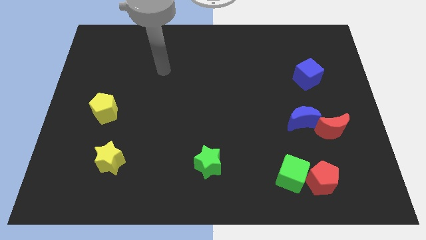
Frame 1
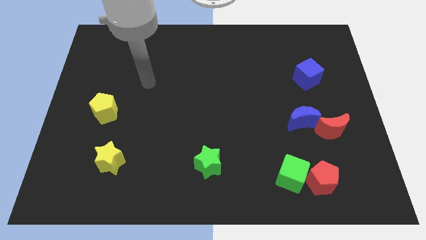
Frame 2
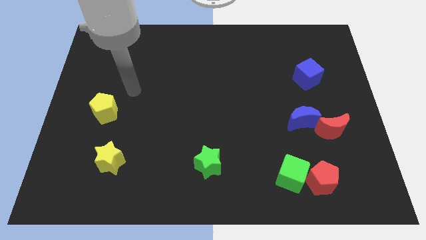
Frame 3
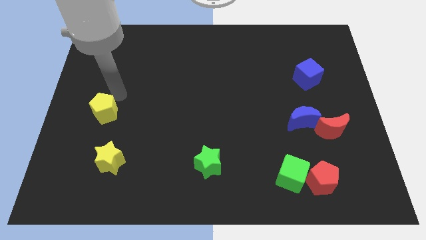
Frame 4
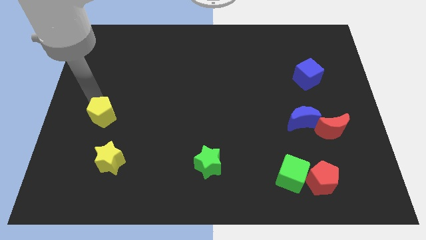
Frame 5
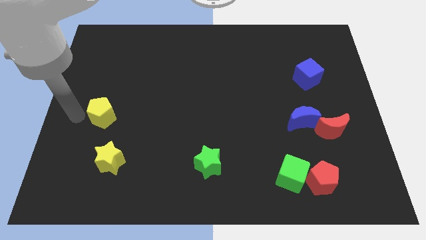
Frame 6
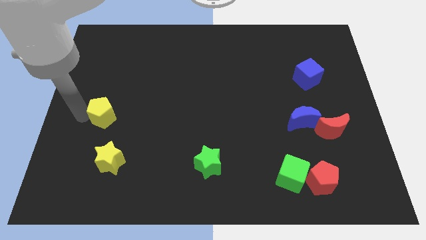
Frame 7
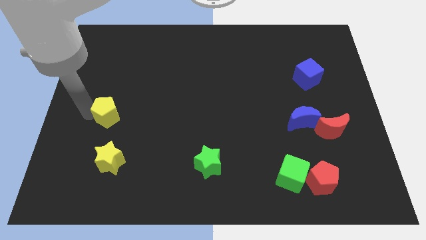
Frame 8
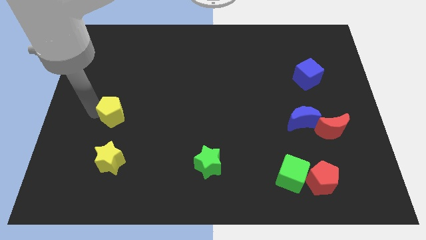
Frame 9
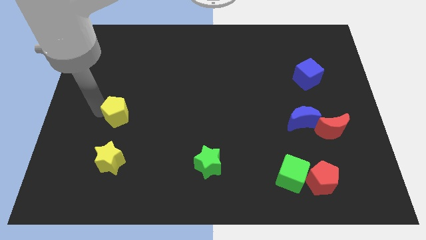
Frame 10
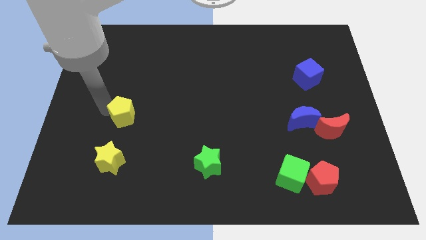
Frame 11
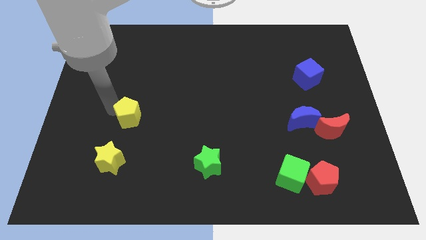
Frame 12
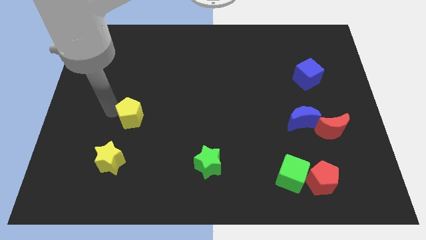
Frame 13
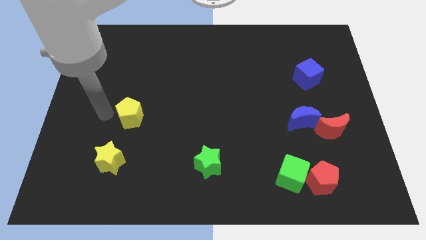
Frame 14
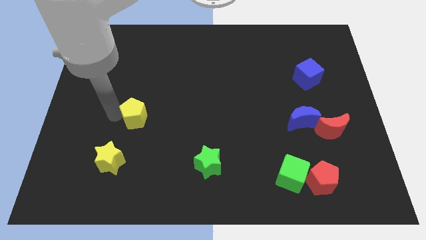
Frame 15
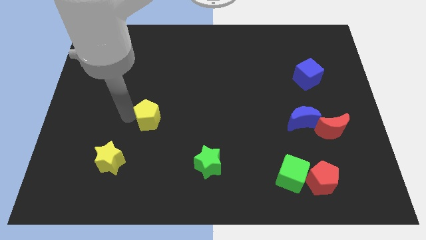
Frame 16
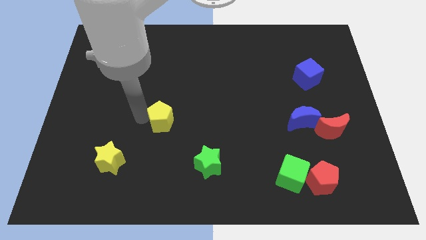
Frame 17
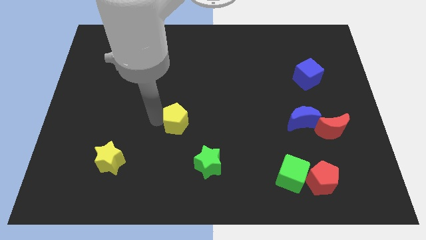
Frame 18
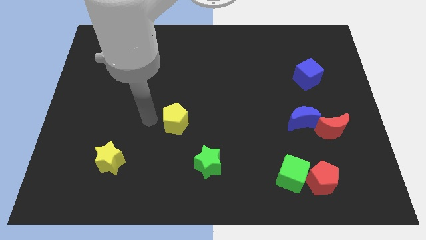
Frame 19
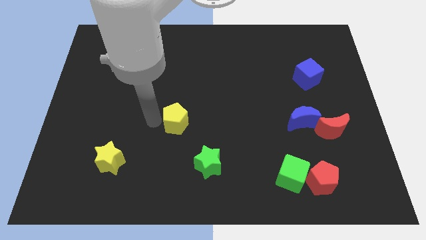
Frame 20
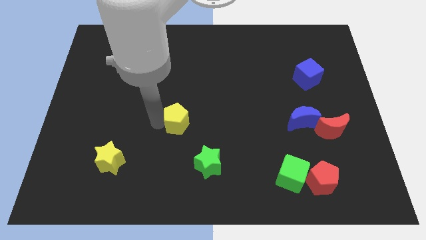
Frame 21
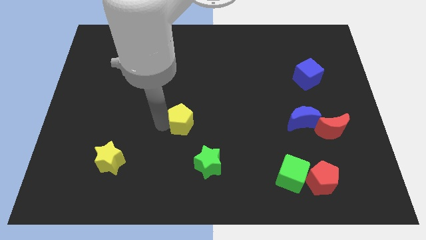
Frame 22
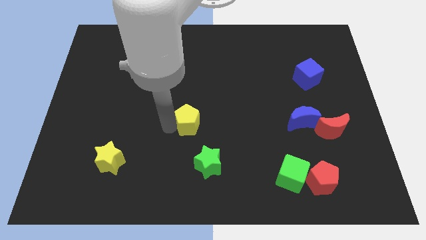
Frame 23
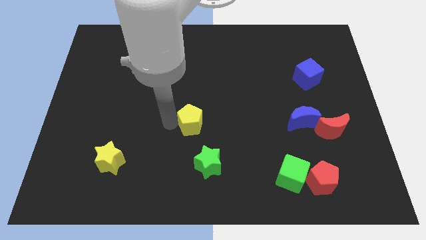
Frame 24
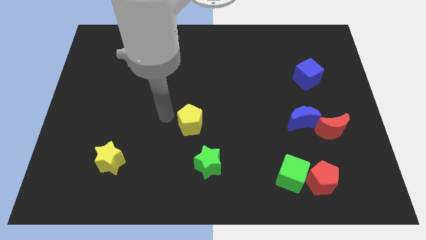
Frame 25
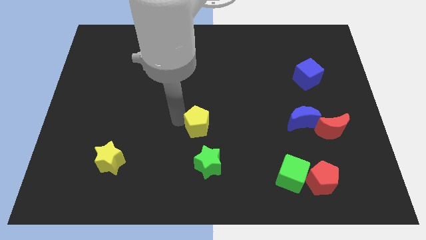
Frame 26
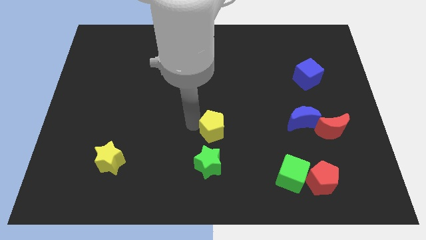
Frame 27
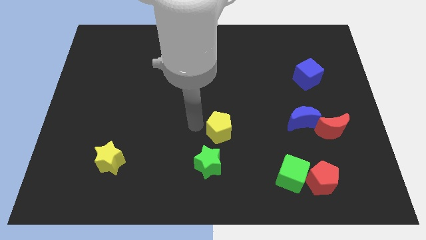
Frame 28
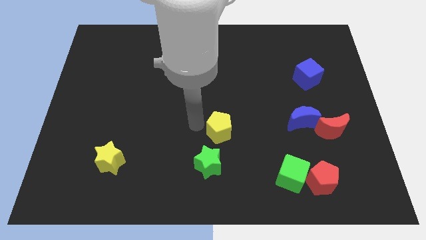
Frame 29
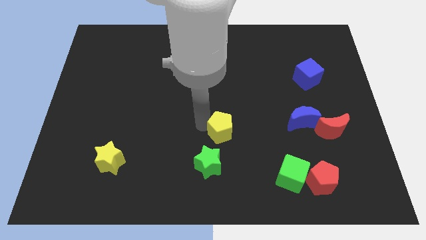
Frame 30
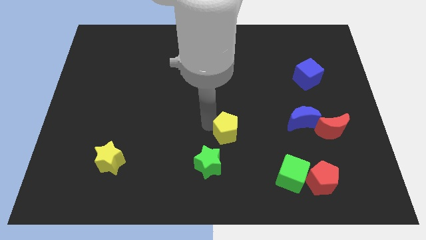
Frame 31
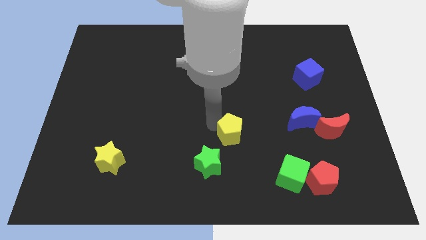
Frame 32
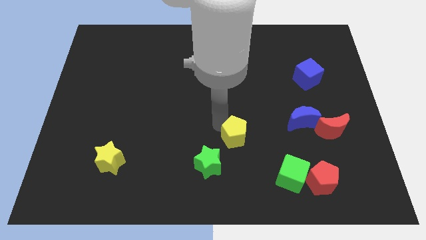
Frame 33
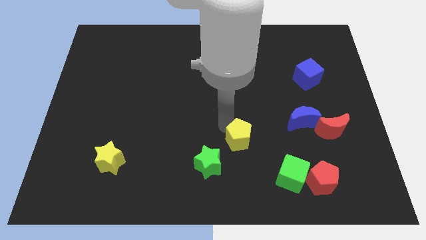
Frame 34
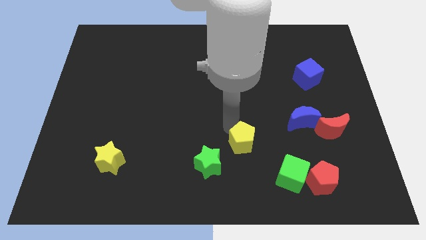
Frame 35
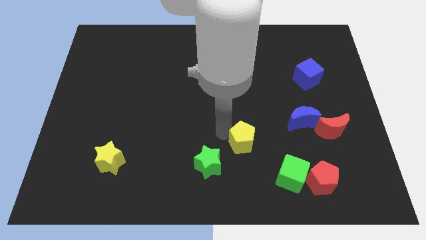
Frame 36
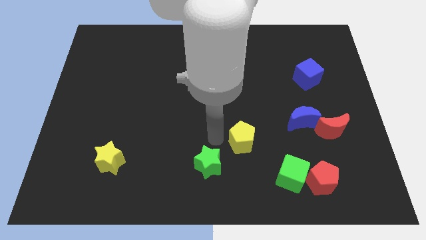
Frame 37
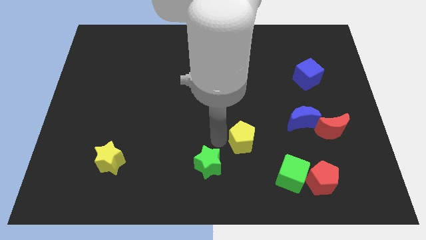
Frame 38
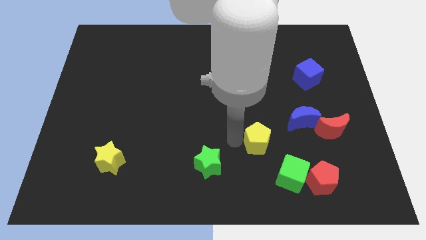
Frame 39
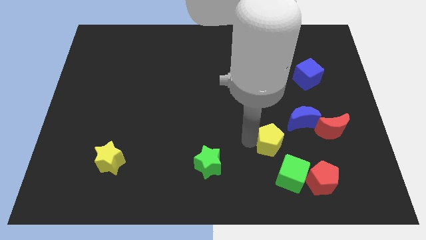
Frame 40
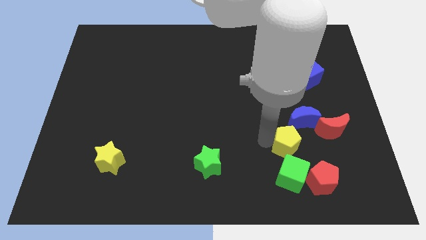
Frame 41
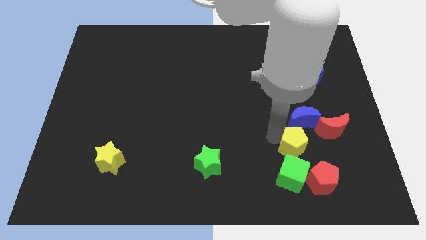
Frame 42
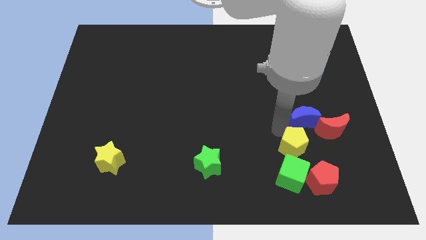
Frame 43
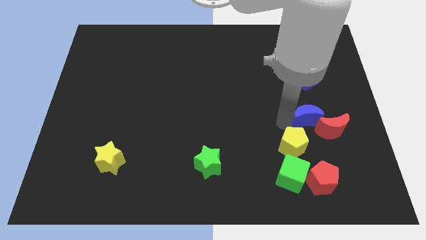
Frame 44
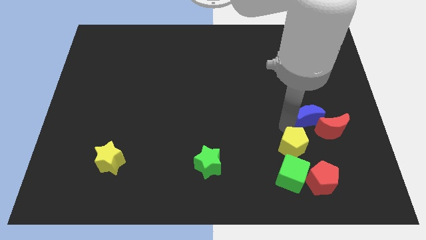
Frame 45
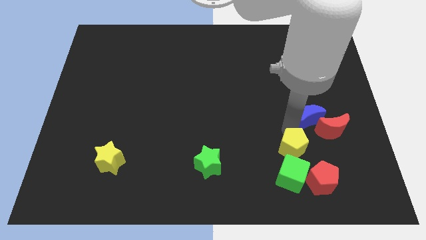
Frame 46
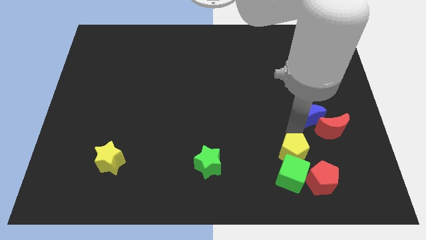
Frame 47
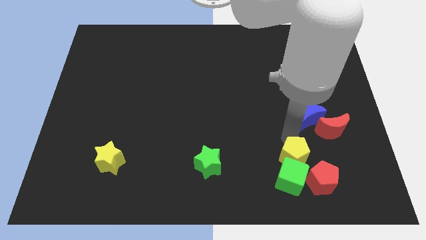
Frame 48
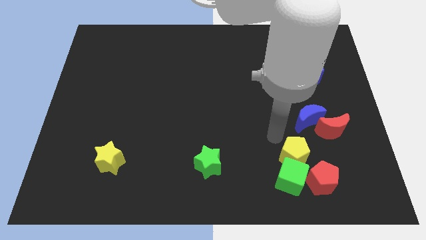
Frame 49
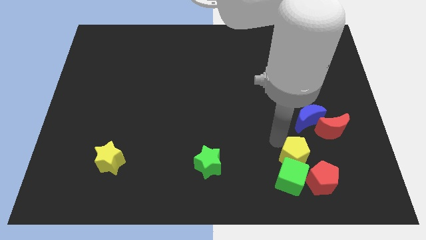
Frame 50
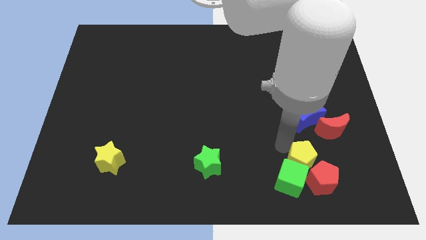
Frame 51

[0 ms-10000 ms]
slide the yellow pentagon to the red pentagon

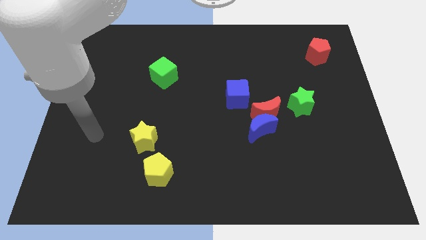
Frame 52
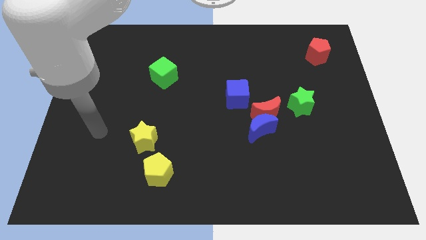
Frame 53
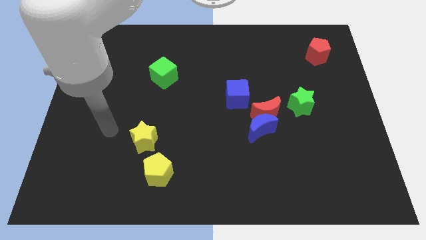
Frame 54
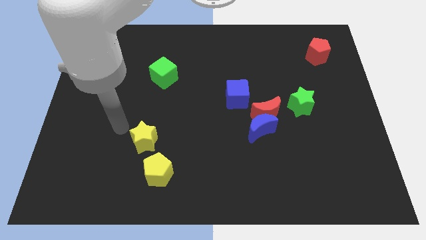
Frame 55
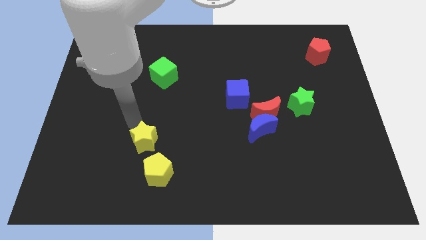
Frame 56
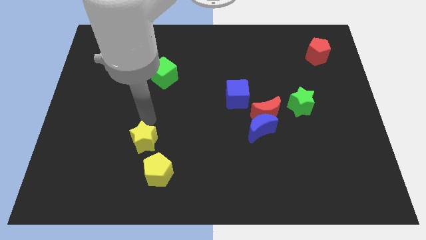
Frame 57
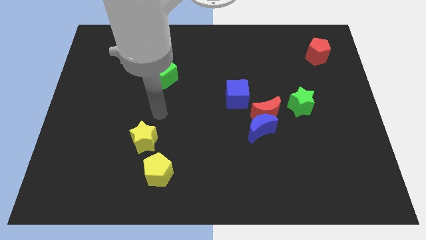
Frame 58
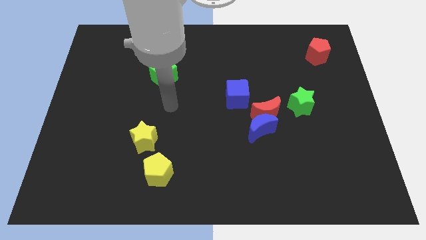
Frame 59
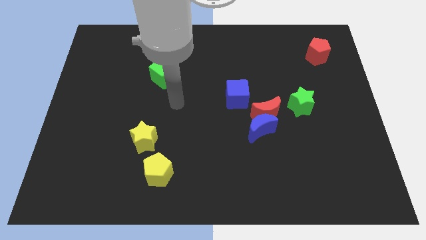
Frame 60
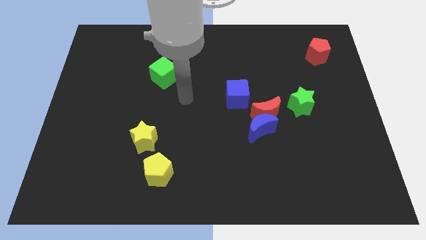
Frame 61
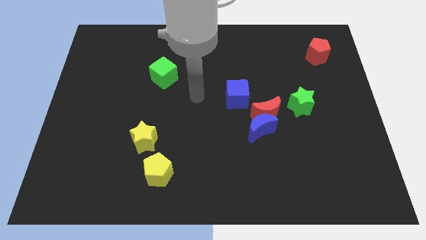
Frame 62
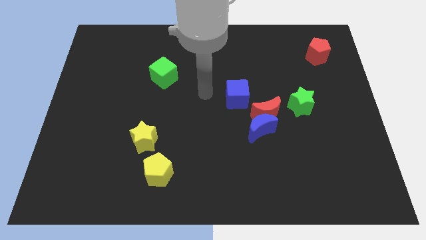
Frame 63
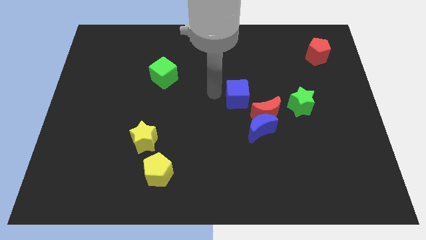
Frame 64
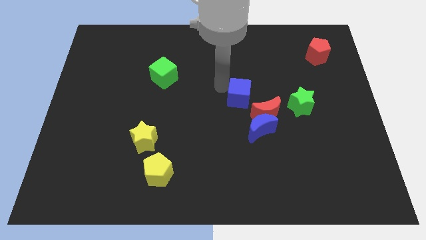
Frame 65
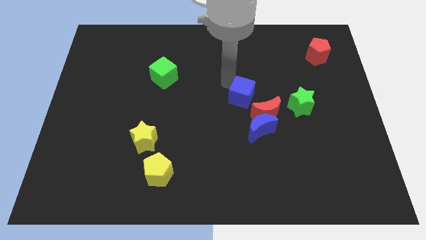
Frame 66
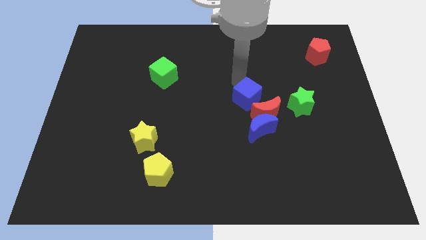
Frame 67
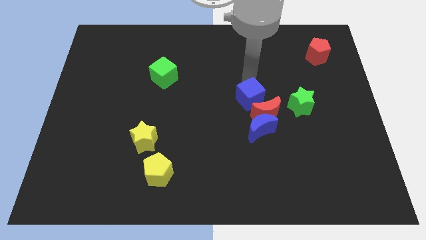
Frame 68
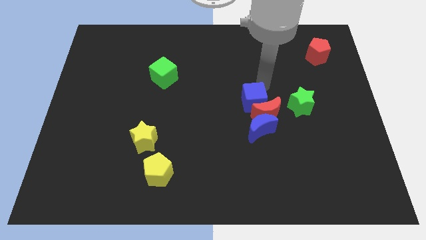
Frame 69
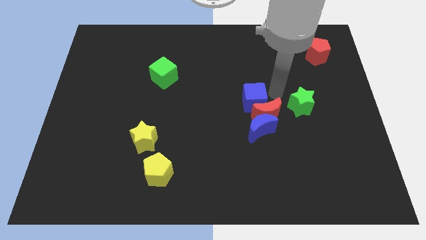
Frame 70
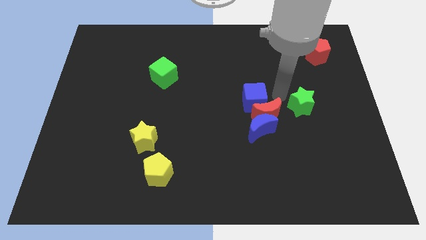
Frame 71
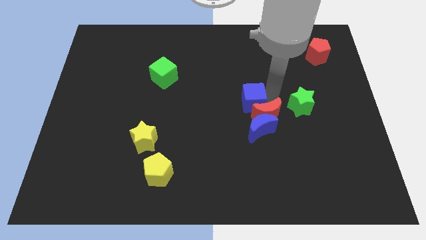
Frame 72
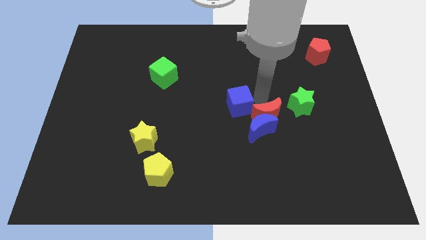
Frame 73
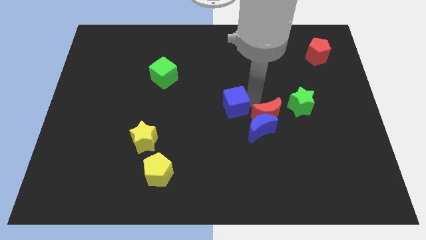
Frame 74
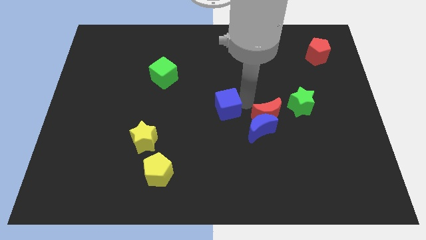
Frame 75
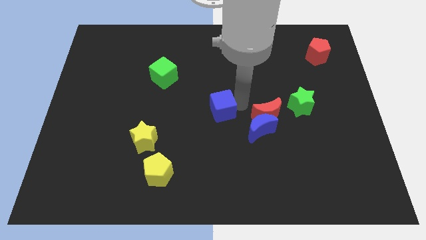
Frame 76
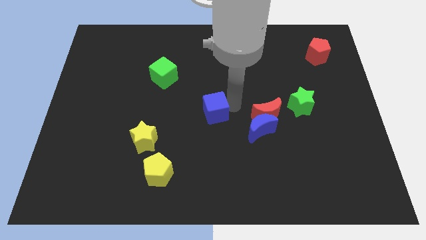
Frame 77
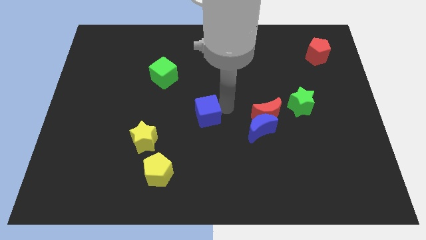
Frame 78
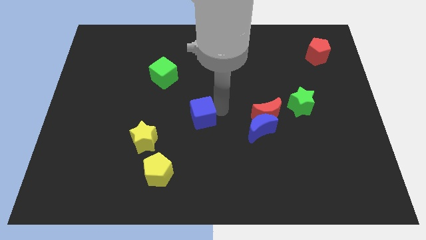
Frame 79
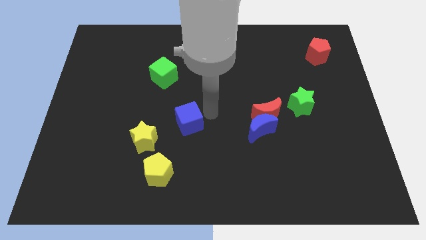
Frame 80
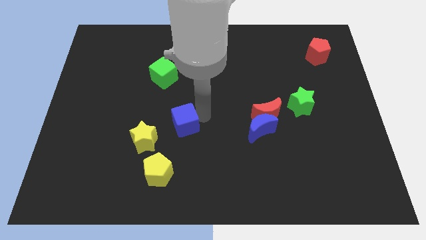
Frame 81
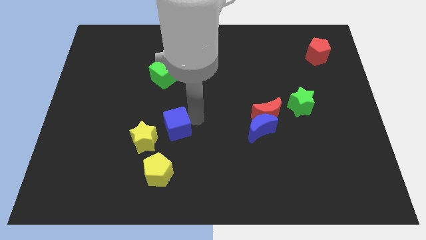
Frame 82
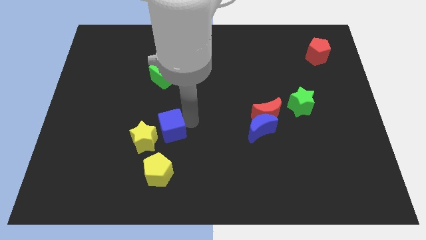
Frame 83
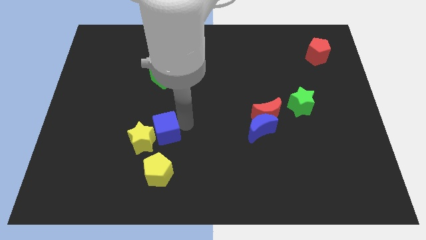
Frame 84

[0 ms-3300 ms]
move the blue cube next to the yellow star
